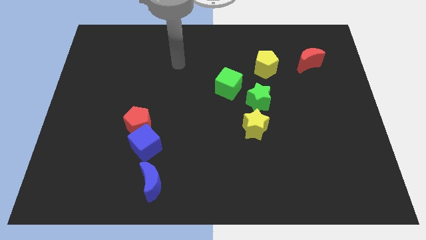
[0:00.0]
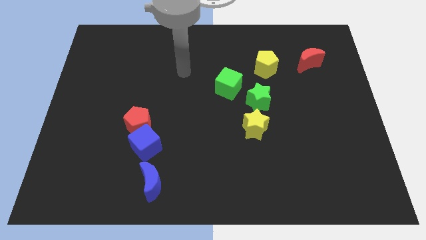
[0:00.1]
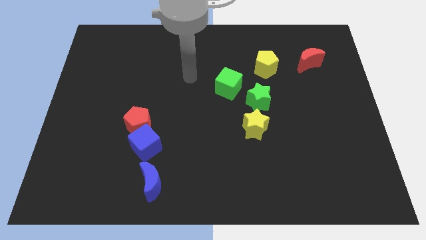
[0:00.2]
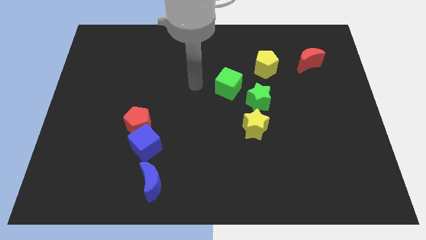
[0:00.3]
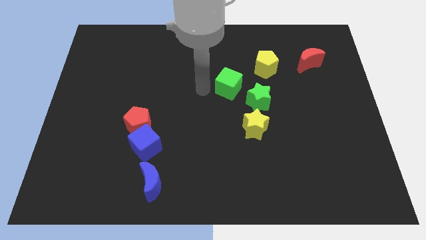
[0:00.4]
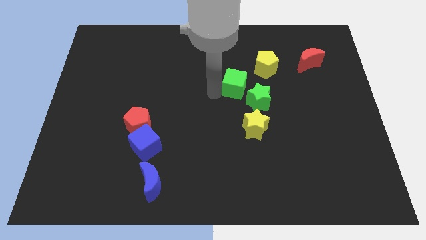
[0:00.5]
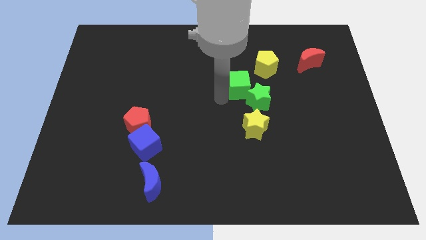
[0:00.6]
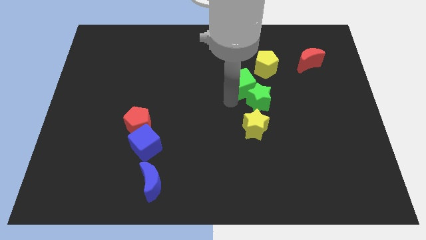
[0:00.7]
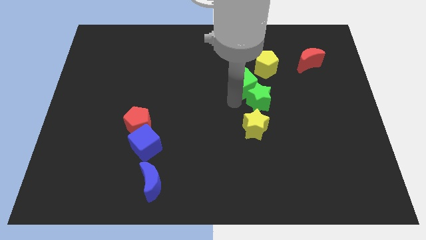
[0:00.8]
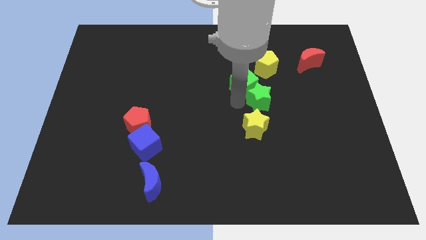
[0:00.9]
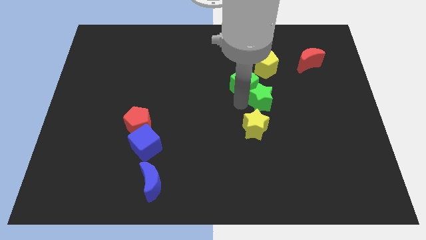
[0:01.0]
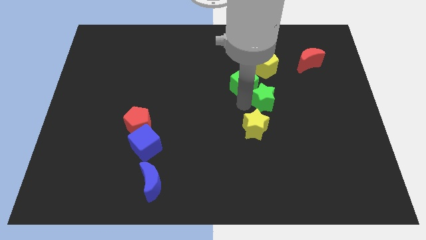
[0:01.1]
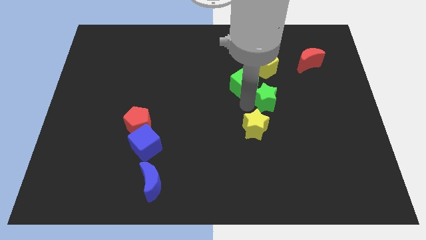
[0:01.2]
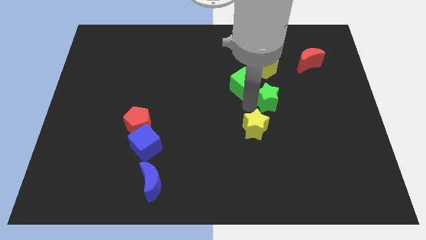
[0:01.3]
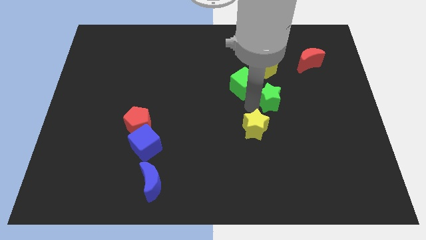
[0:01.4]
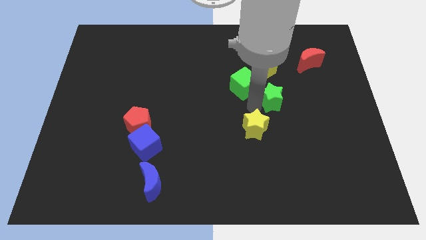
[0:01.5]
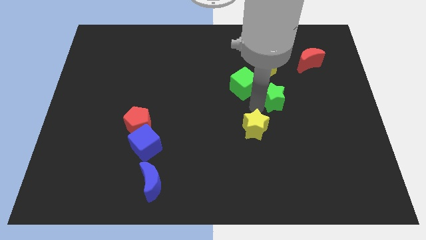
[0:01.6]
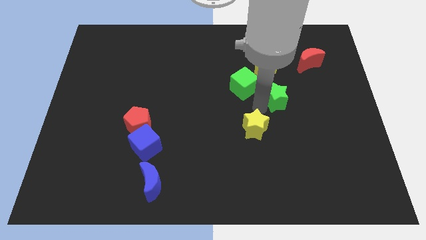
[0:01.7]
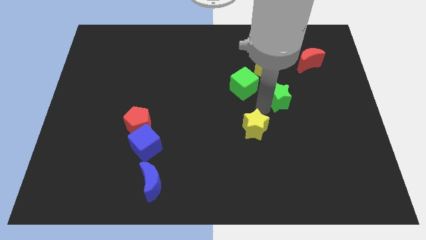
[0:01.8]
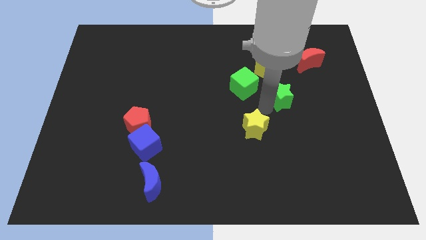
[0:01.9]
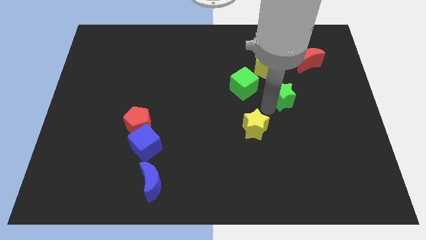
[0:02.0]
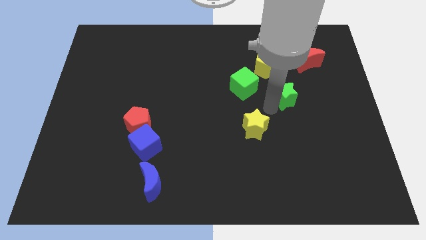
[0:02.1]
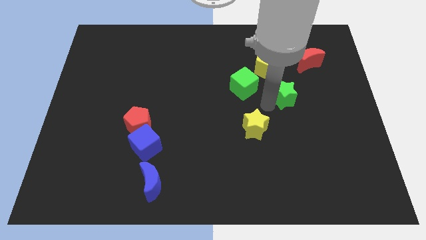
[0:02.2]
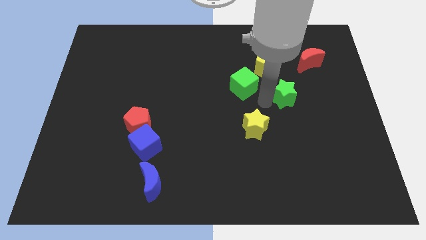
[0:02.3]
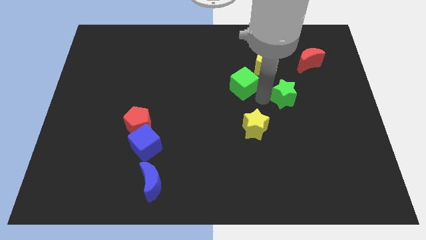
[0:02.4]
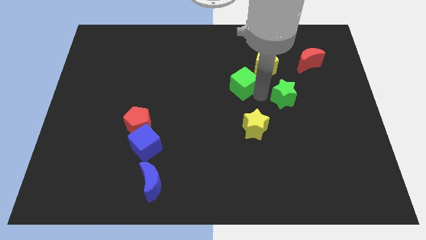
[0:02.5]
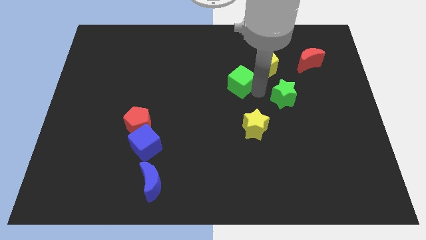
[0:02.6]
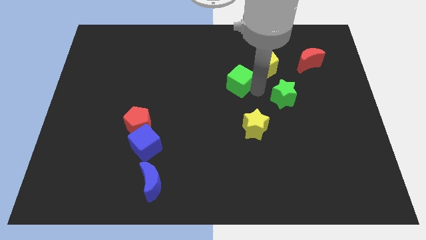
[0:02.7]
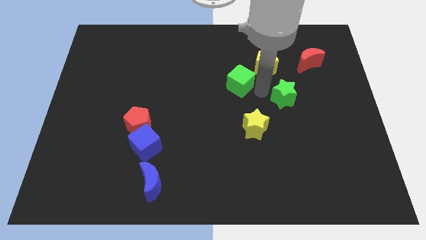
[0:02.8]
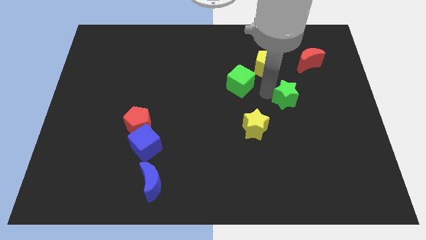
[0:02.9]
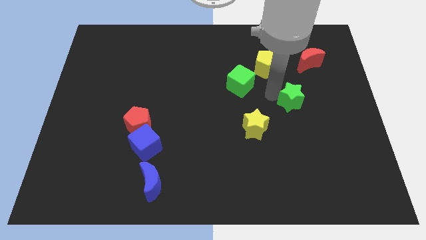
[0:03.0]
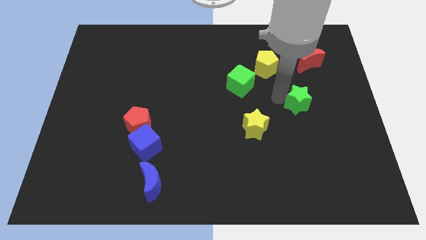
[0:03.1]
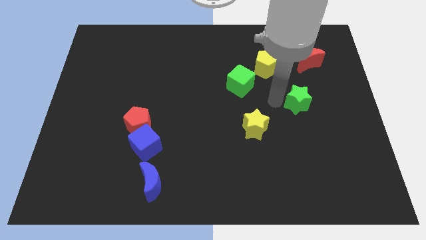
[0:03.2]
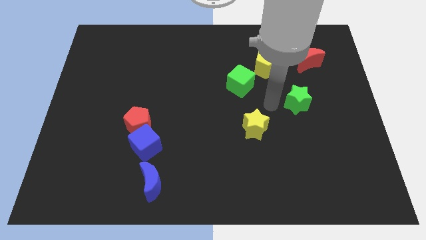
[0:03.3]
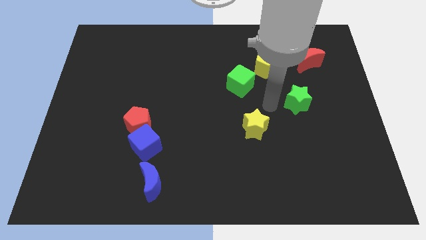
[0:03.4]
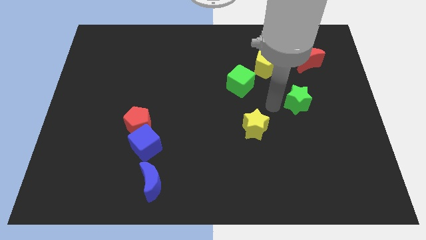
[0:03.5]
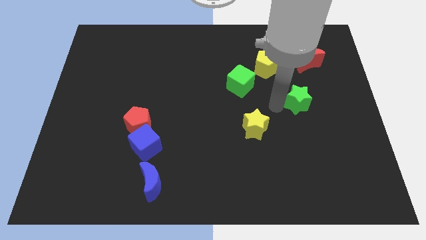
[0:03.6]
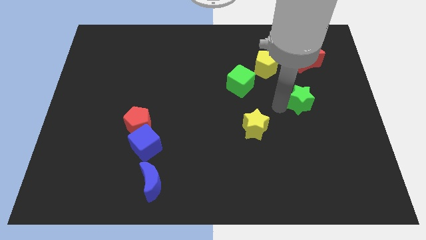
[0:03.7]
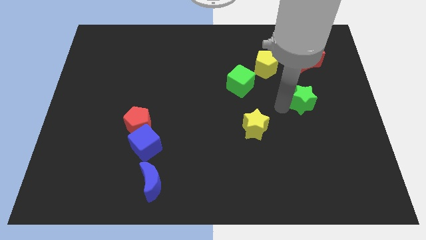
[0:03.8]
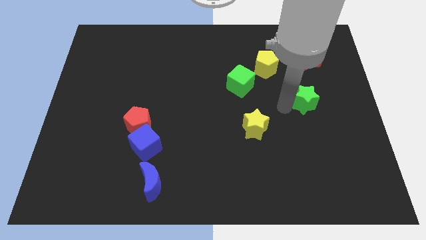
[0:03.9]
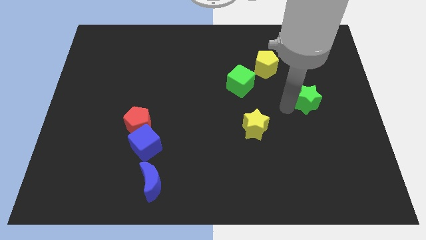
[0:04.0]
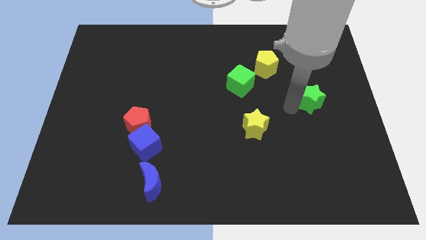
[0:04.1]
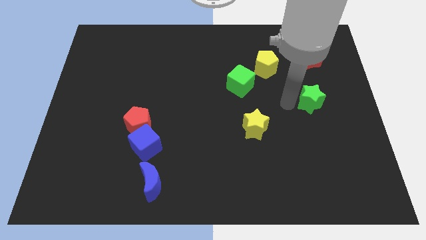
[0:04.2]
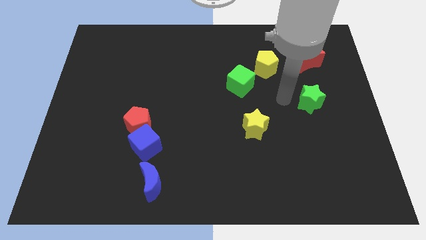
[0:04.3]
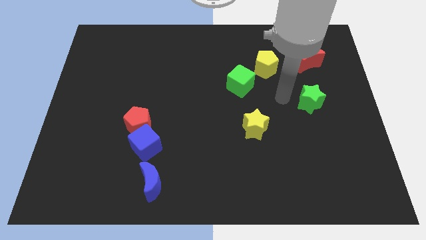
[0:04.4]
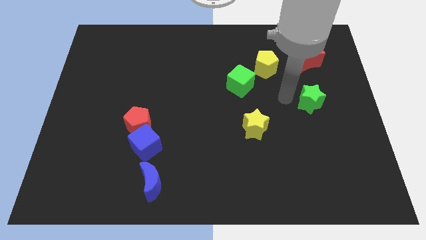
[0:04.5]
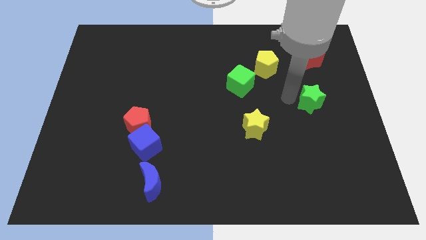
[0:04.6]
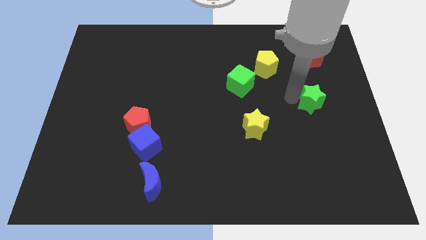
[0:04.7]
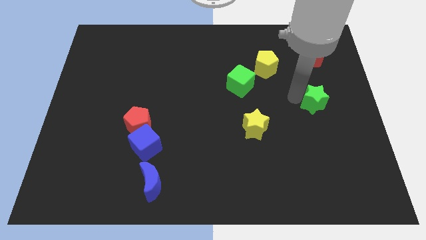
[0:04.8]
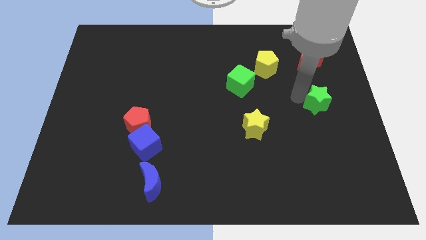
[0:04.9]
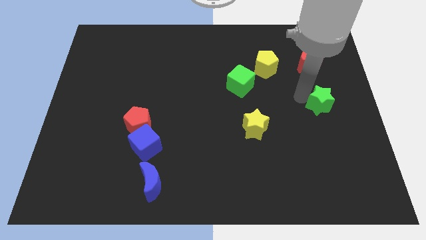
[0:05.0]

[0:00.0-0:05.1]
move the green star to the center right

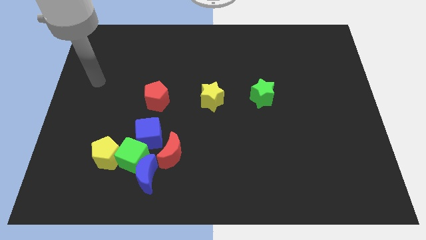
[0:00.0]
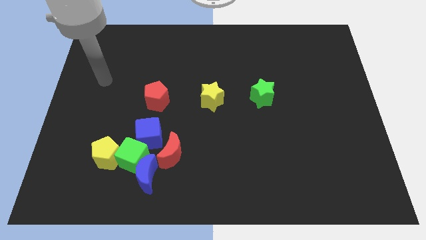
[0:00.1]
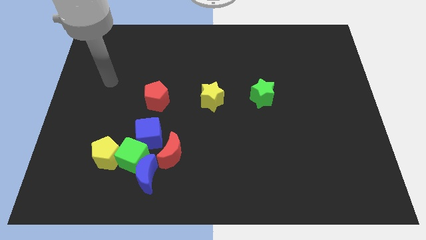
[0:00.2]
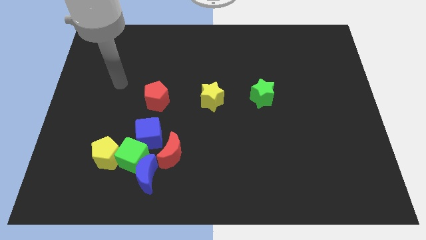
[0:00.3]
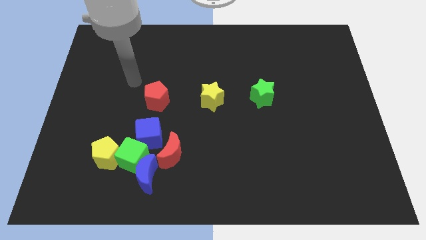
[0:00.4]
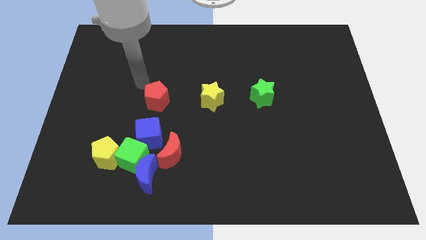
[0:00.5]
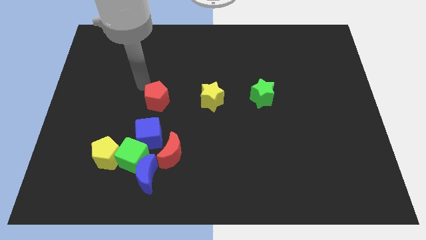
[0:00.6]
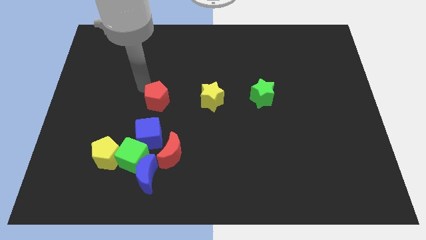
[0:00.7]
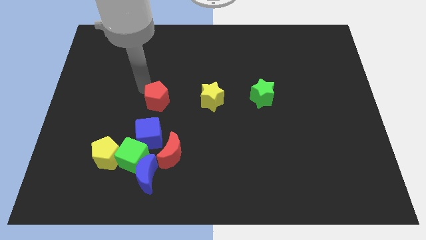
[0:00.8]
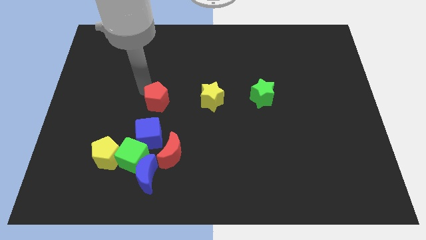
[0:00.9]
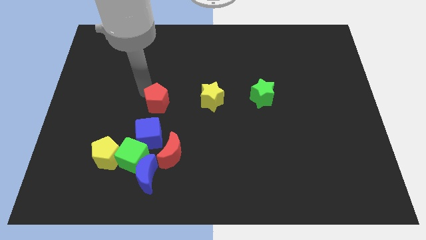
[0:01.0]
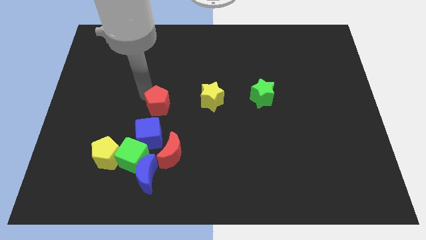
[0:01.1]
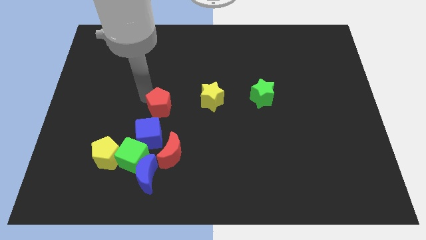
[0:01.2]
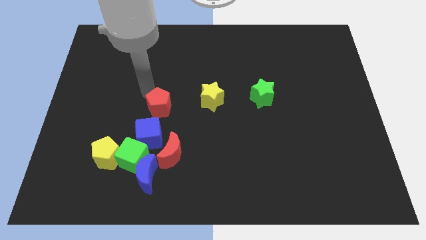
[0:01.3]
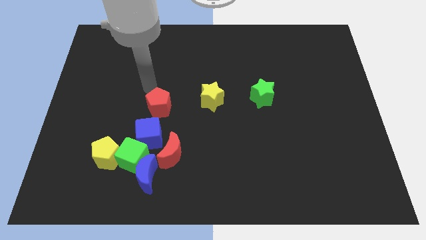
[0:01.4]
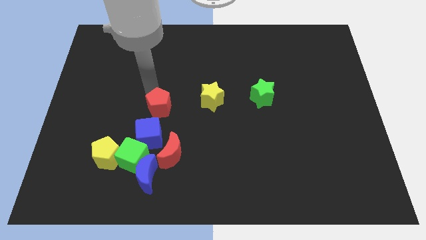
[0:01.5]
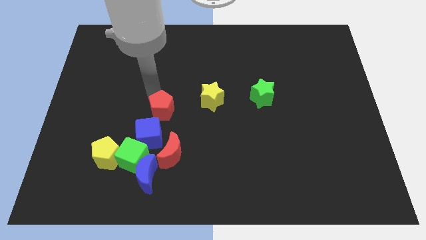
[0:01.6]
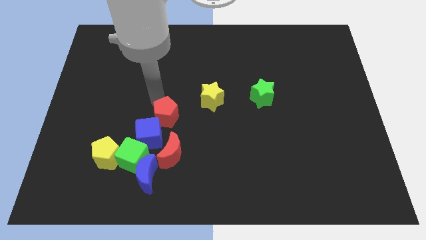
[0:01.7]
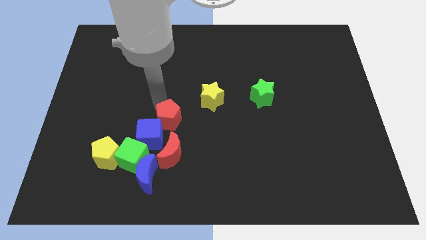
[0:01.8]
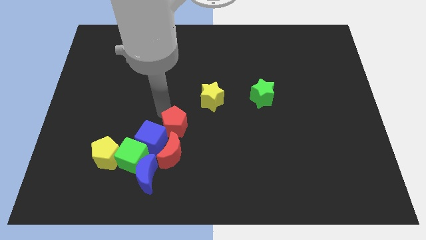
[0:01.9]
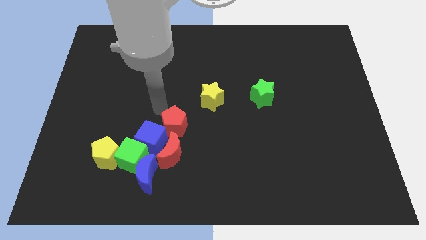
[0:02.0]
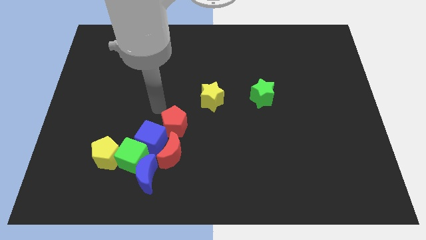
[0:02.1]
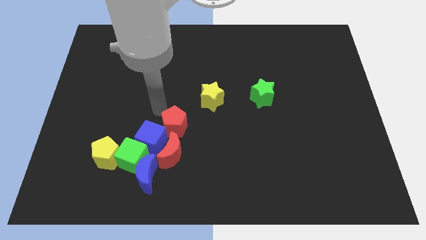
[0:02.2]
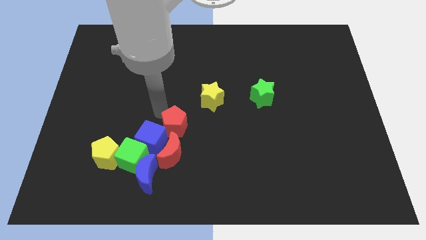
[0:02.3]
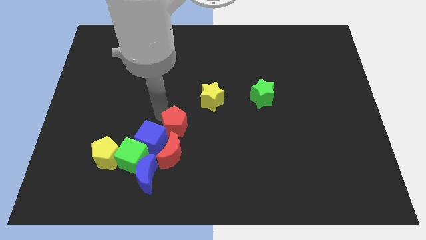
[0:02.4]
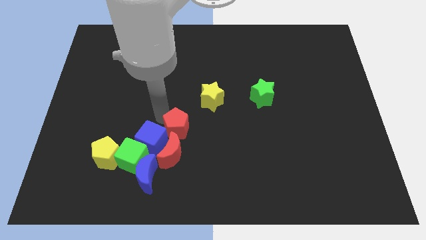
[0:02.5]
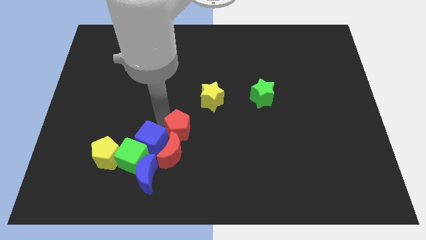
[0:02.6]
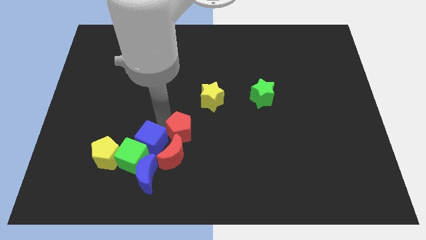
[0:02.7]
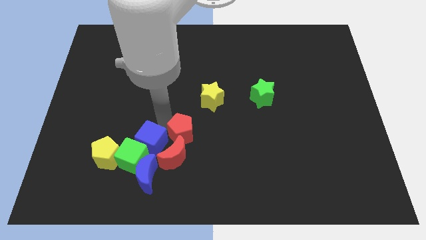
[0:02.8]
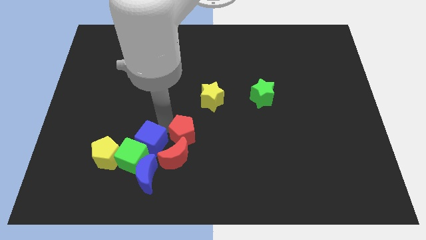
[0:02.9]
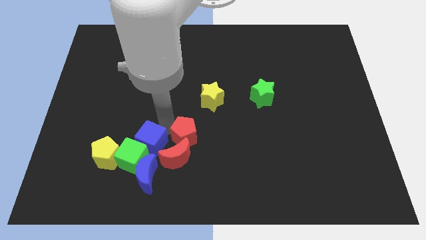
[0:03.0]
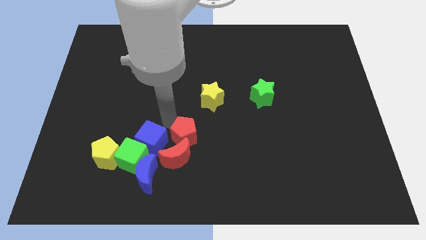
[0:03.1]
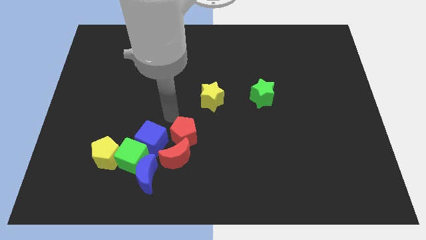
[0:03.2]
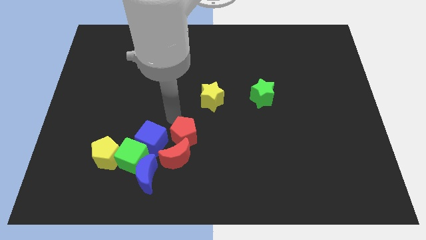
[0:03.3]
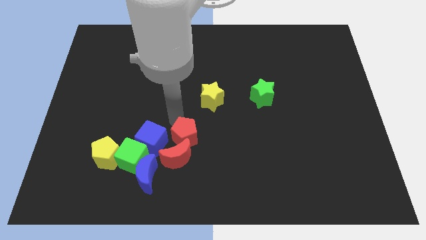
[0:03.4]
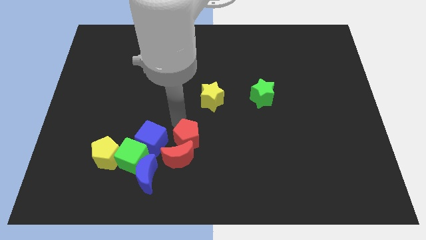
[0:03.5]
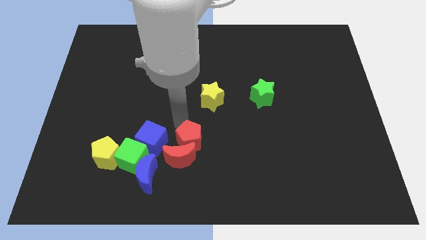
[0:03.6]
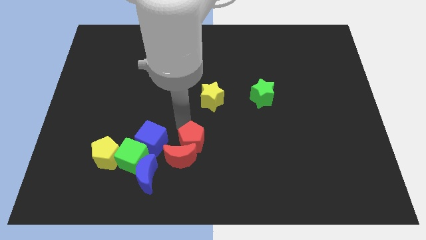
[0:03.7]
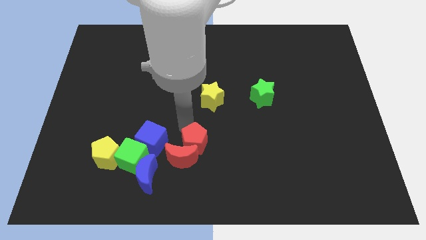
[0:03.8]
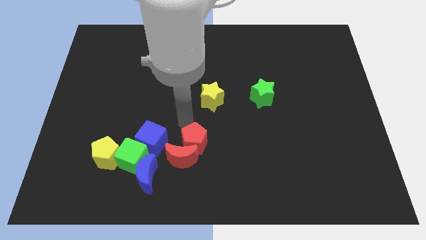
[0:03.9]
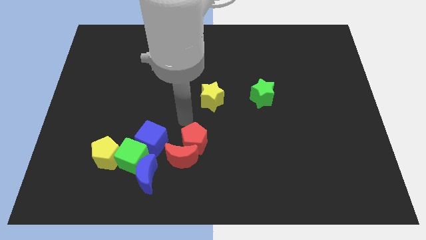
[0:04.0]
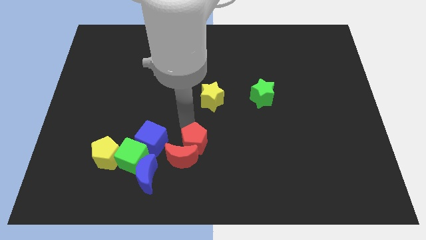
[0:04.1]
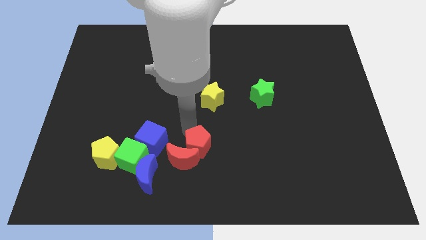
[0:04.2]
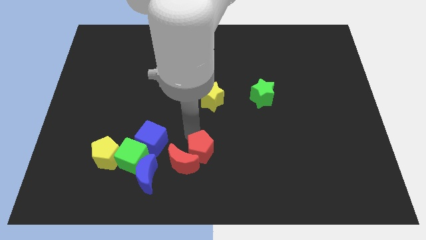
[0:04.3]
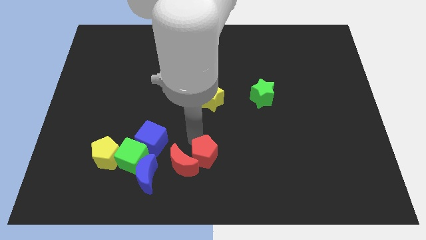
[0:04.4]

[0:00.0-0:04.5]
push the red pentagon to the bottom
